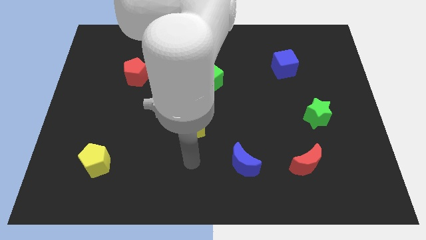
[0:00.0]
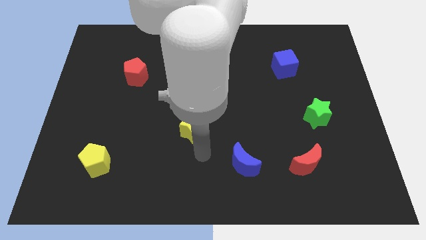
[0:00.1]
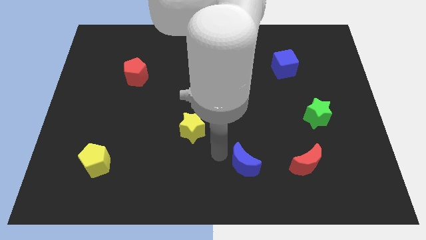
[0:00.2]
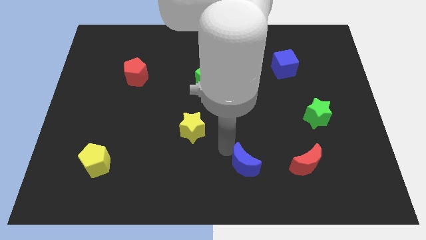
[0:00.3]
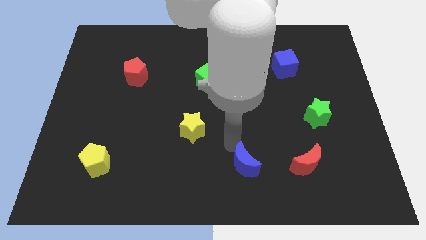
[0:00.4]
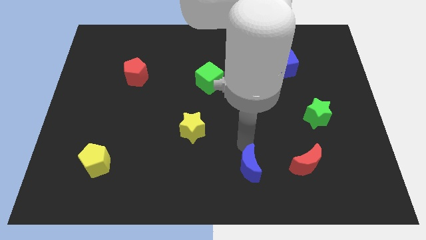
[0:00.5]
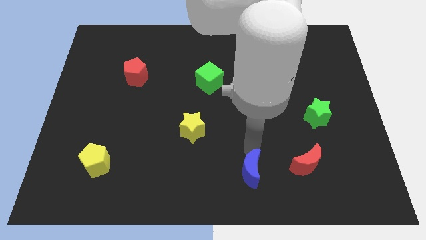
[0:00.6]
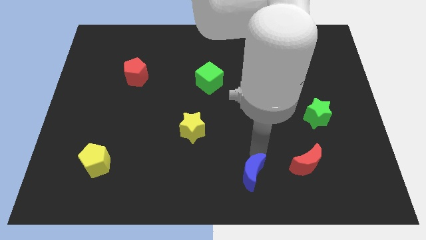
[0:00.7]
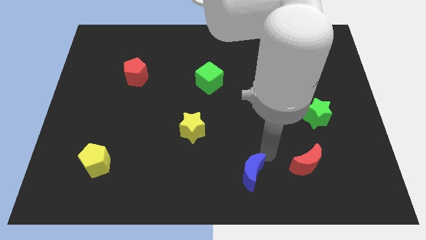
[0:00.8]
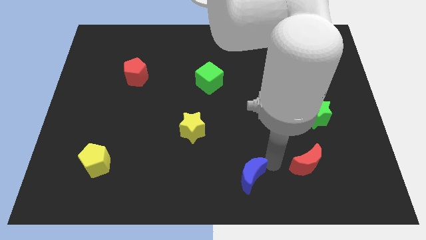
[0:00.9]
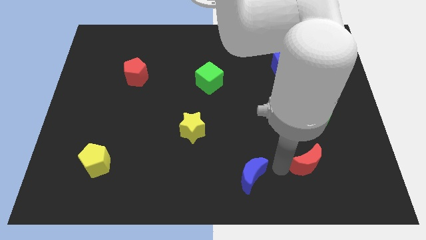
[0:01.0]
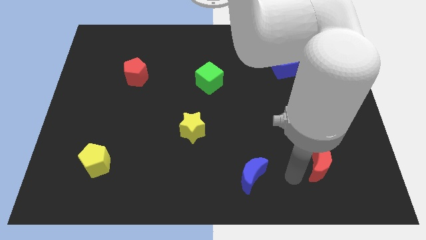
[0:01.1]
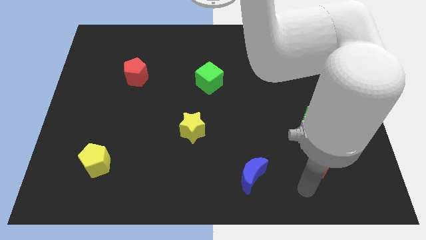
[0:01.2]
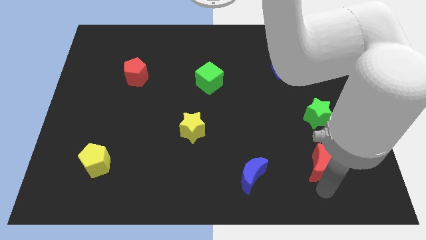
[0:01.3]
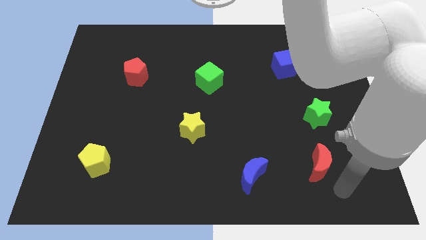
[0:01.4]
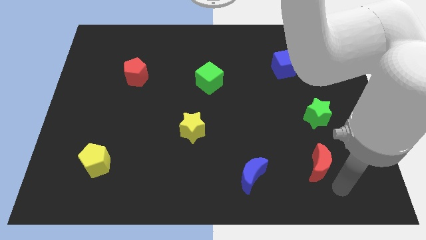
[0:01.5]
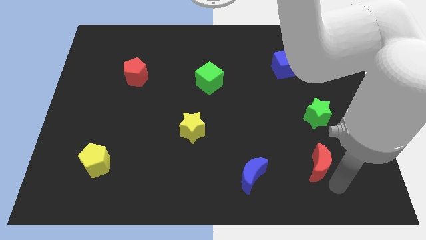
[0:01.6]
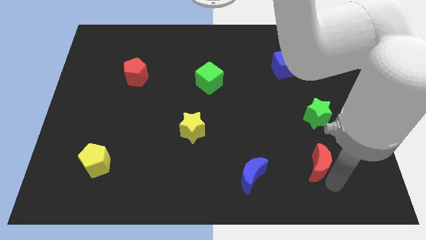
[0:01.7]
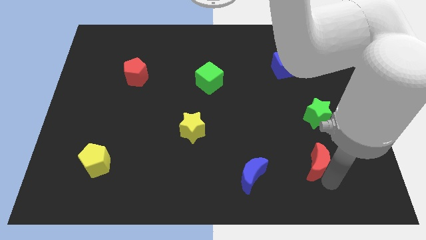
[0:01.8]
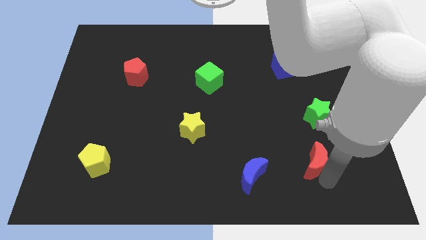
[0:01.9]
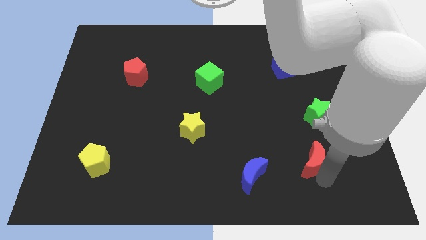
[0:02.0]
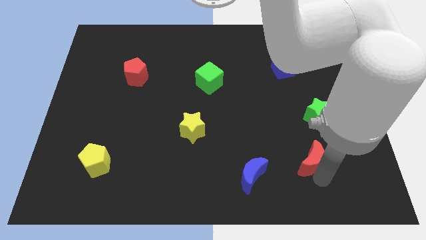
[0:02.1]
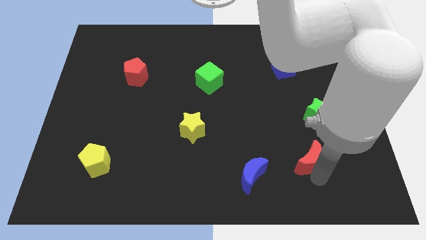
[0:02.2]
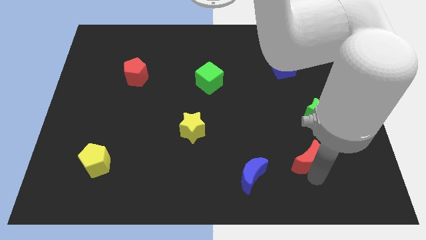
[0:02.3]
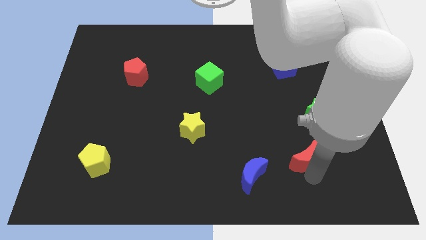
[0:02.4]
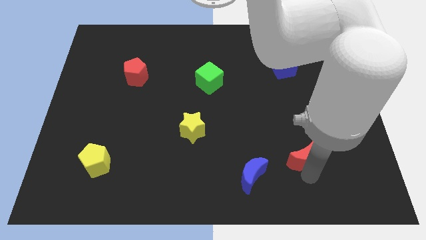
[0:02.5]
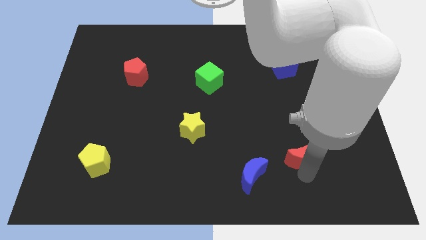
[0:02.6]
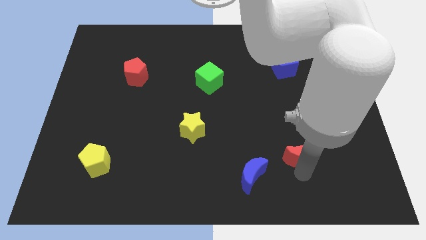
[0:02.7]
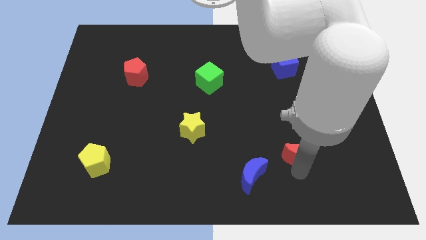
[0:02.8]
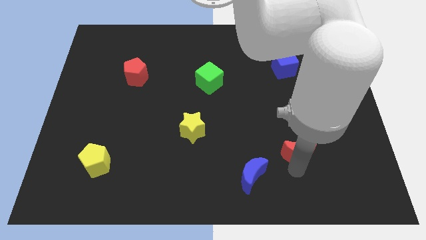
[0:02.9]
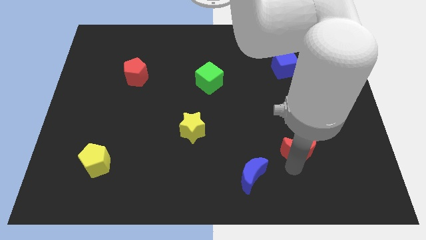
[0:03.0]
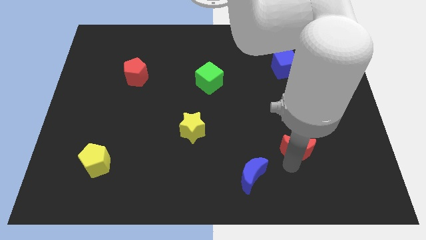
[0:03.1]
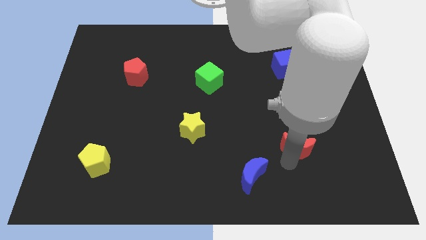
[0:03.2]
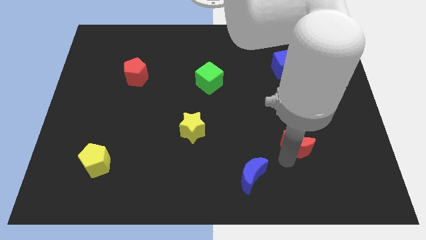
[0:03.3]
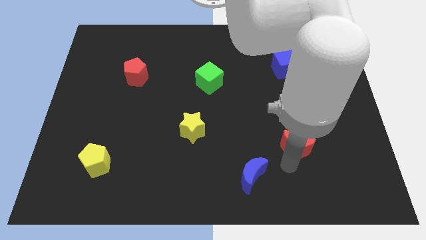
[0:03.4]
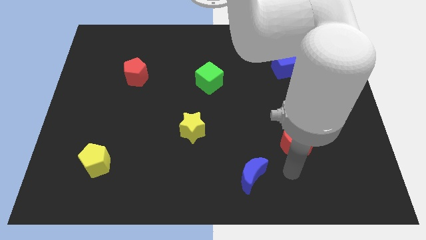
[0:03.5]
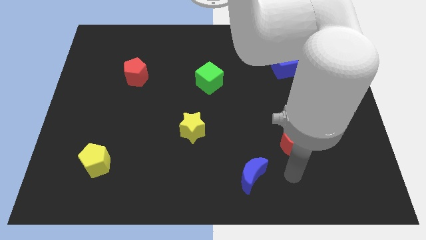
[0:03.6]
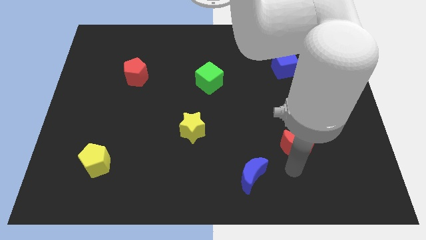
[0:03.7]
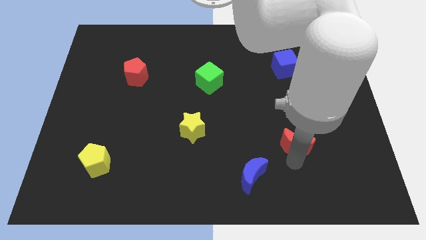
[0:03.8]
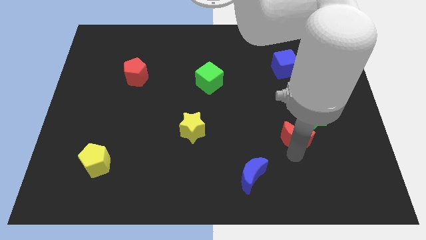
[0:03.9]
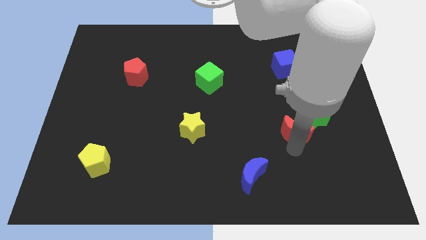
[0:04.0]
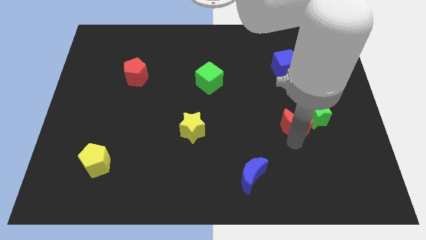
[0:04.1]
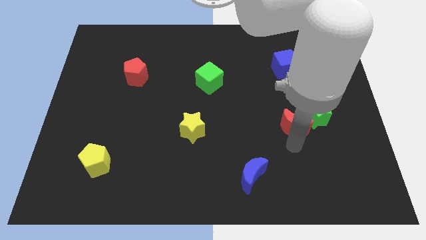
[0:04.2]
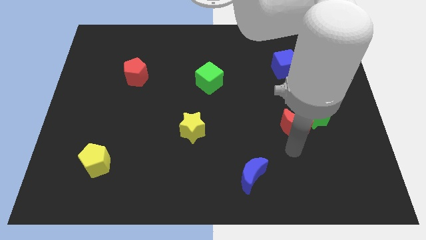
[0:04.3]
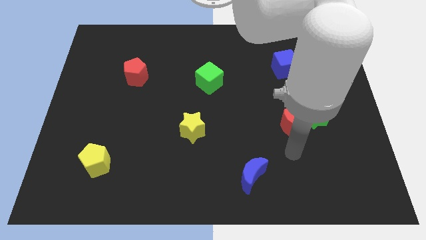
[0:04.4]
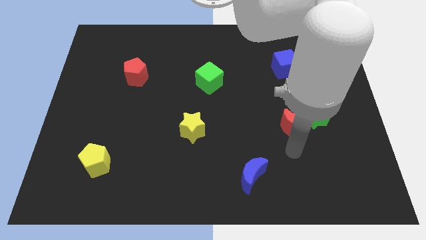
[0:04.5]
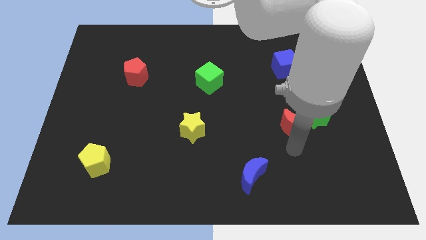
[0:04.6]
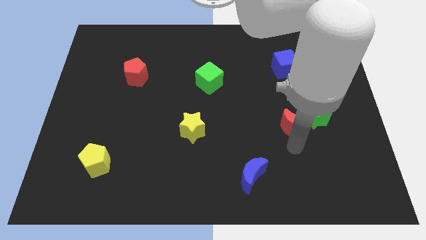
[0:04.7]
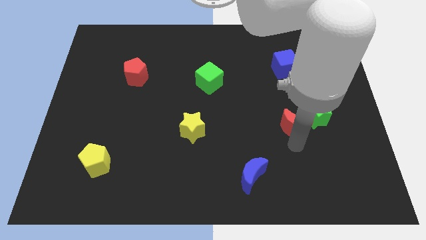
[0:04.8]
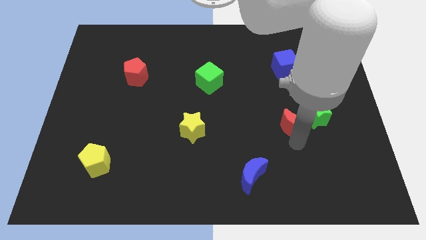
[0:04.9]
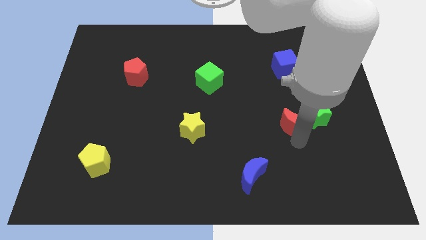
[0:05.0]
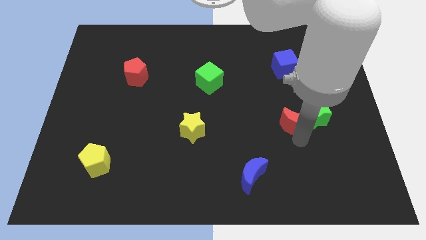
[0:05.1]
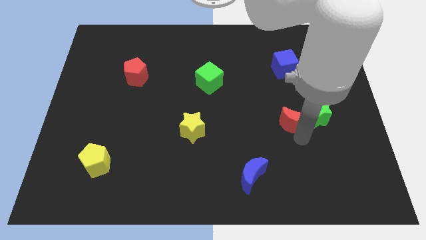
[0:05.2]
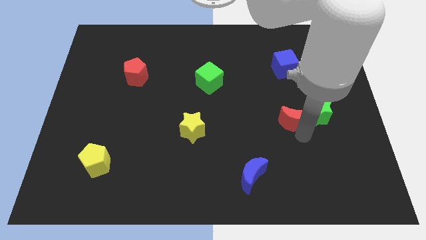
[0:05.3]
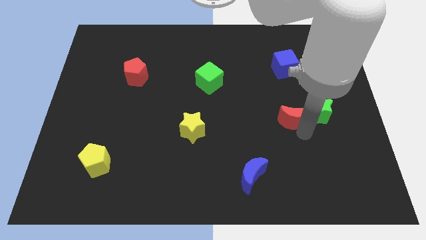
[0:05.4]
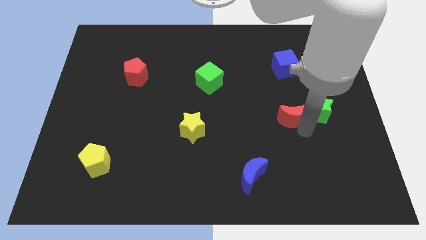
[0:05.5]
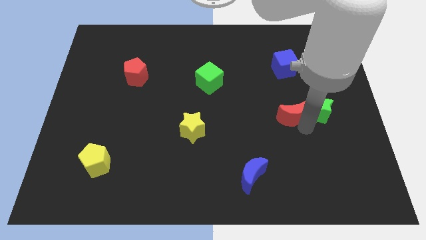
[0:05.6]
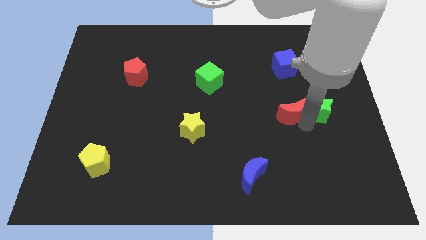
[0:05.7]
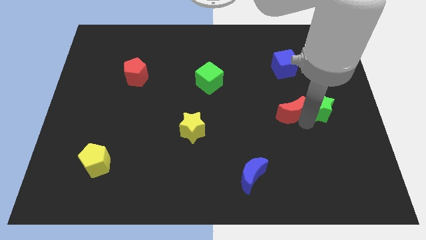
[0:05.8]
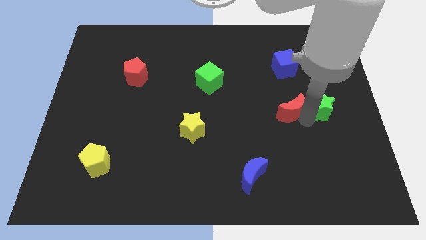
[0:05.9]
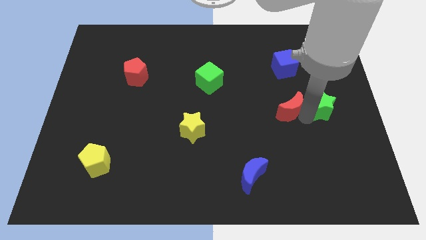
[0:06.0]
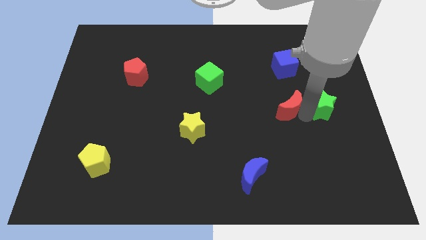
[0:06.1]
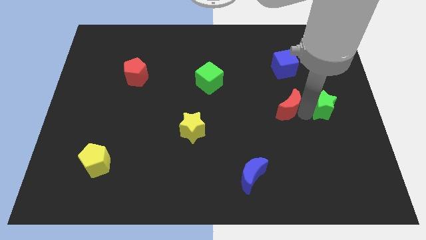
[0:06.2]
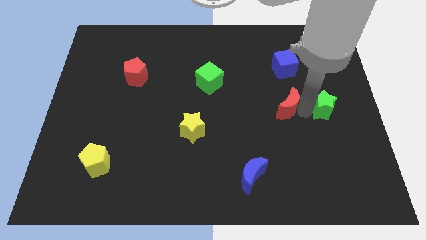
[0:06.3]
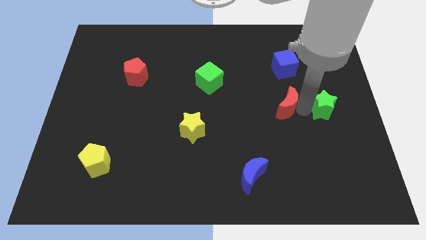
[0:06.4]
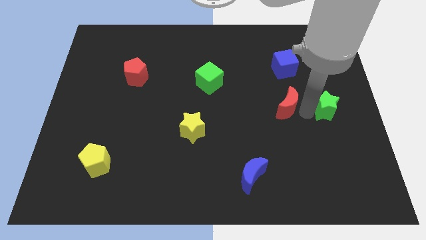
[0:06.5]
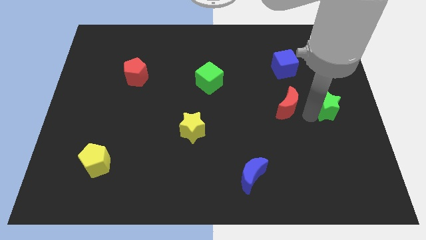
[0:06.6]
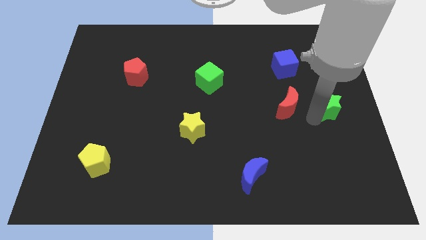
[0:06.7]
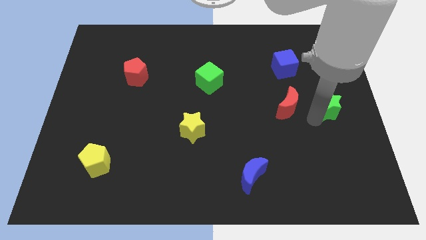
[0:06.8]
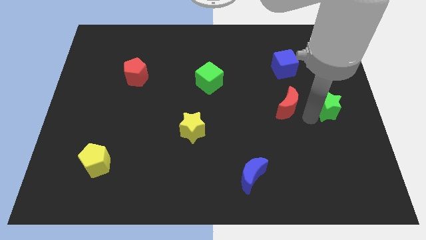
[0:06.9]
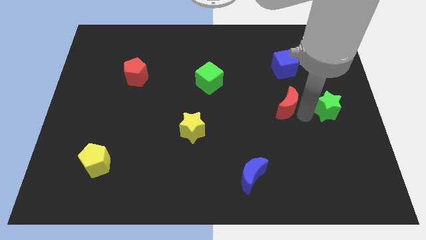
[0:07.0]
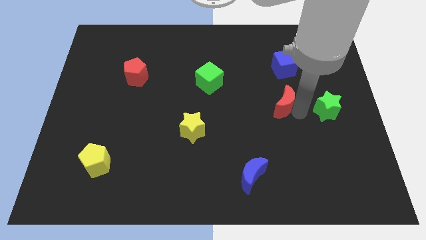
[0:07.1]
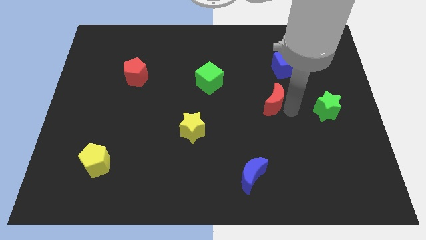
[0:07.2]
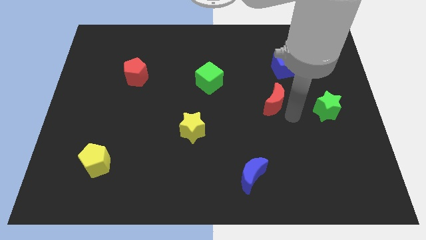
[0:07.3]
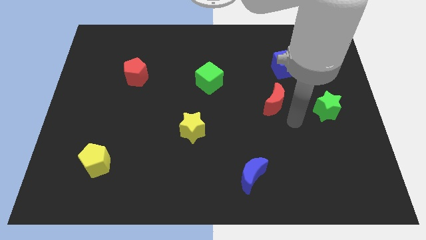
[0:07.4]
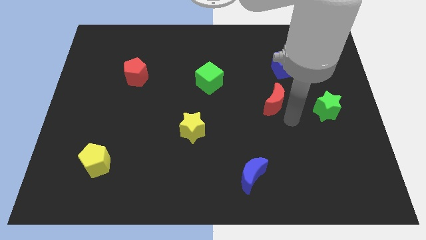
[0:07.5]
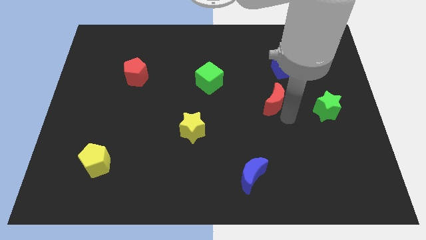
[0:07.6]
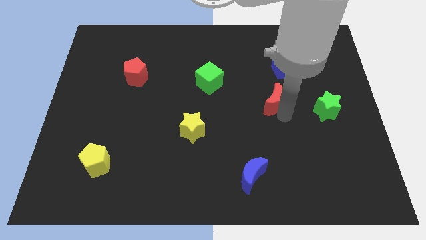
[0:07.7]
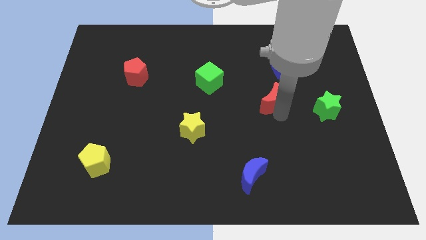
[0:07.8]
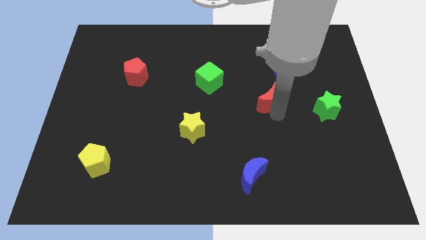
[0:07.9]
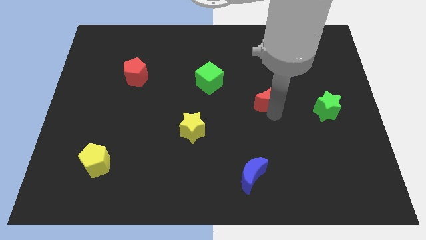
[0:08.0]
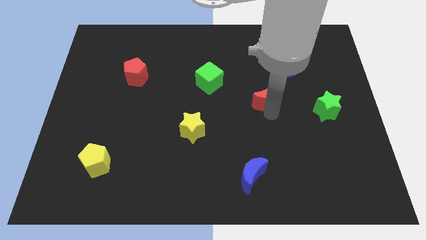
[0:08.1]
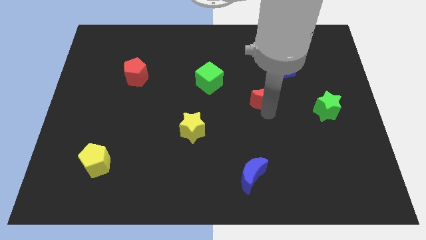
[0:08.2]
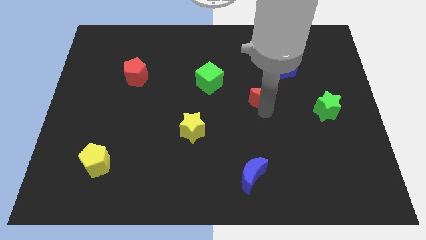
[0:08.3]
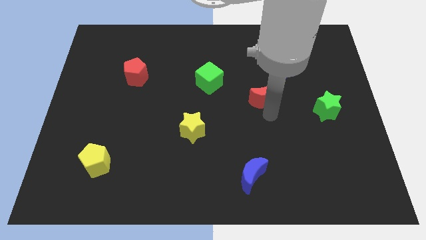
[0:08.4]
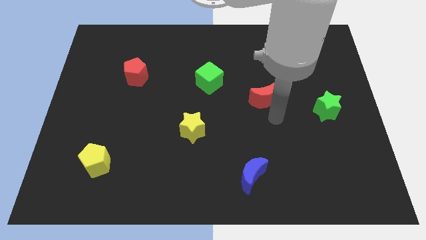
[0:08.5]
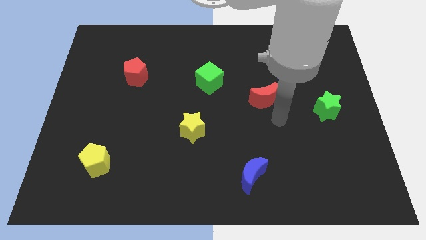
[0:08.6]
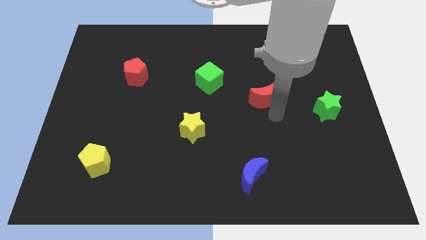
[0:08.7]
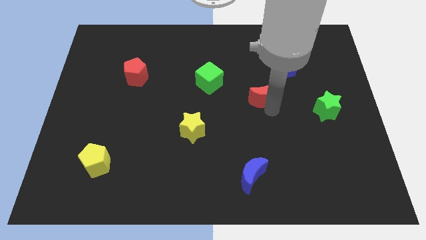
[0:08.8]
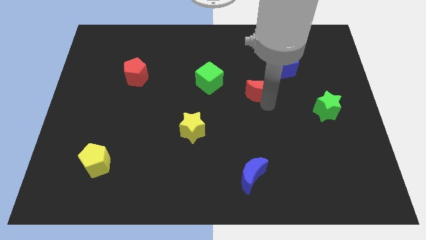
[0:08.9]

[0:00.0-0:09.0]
move the red moon to the right side of the green cube
